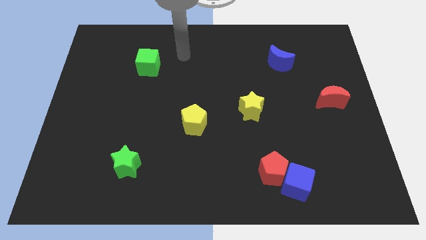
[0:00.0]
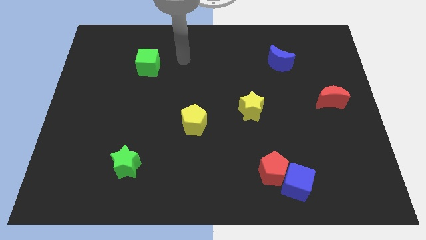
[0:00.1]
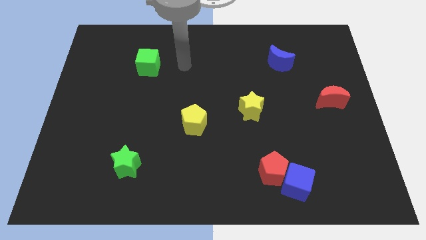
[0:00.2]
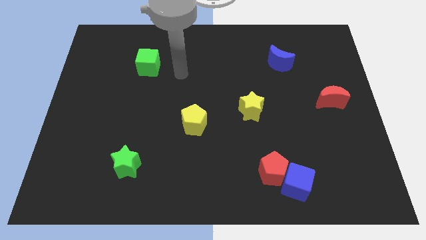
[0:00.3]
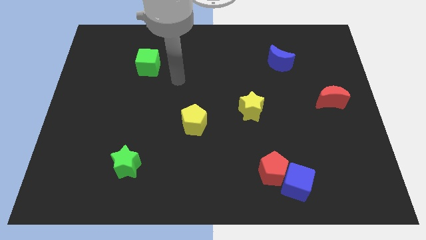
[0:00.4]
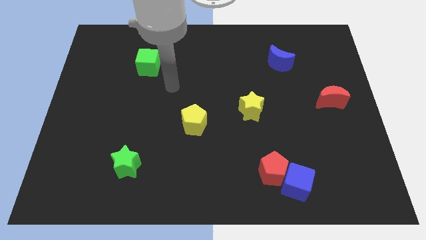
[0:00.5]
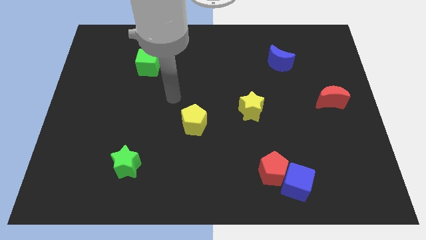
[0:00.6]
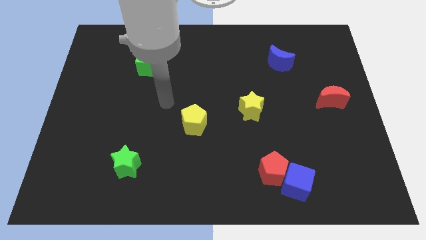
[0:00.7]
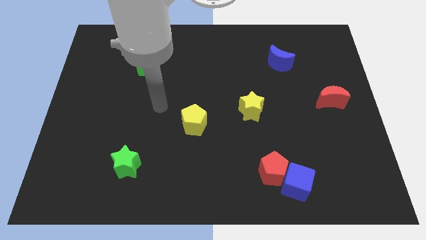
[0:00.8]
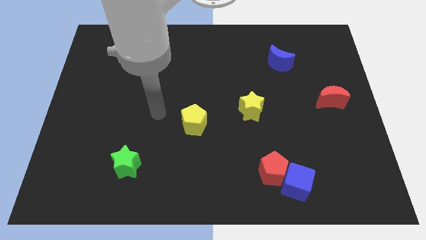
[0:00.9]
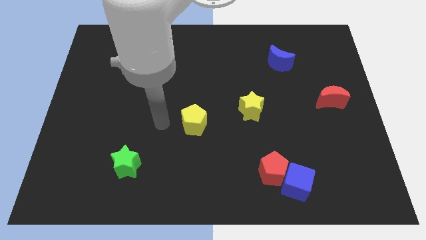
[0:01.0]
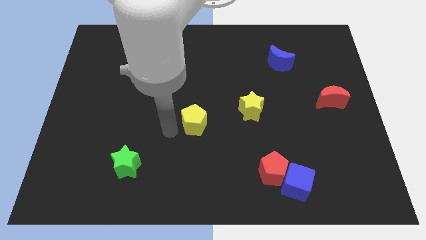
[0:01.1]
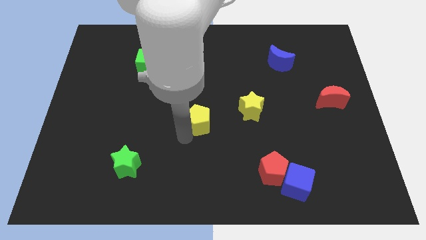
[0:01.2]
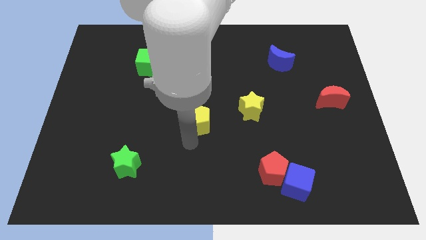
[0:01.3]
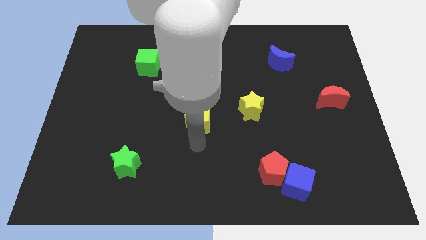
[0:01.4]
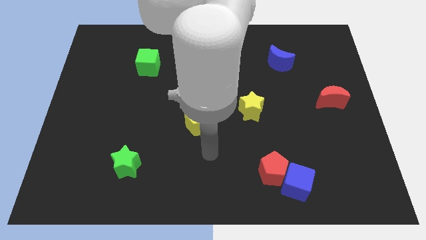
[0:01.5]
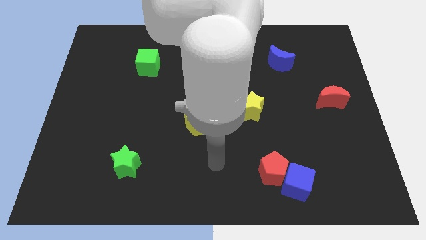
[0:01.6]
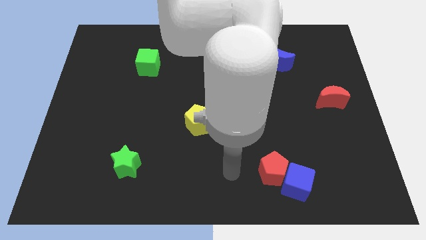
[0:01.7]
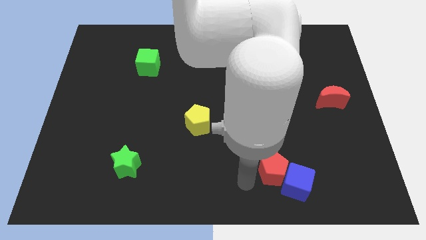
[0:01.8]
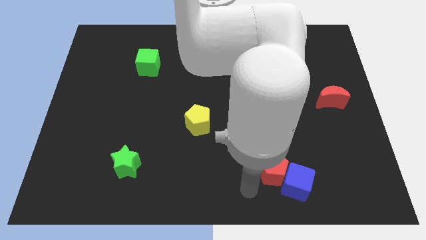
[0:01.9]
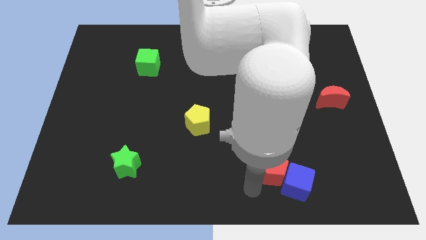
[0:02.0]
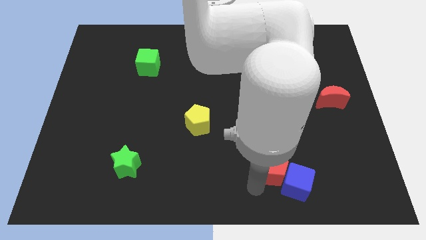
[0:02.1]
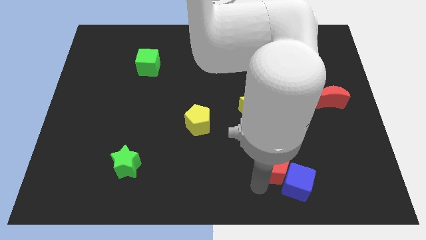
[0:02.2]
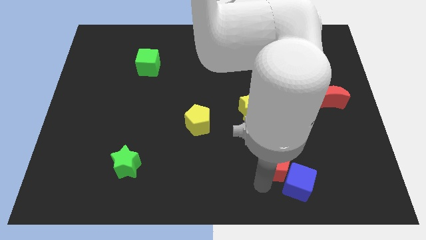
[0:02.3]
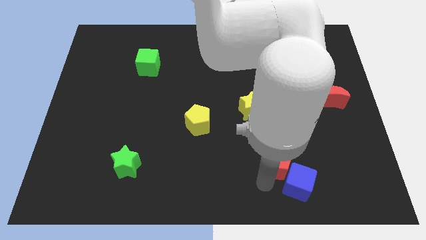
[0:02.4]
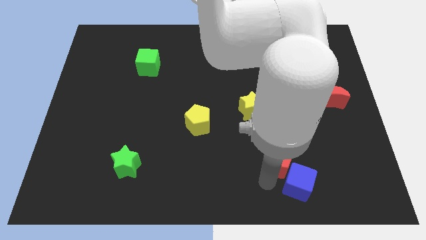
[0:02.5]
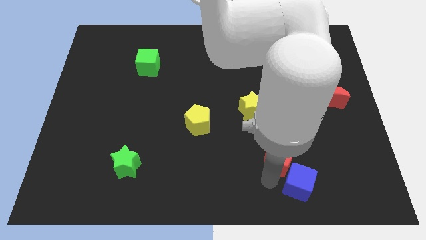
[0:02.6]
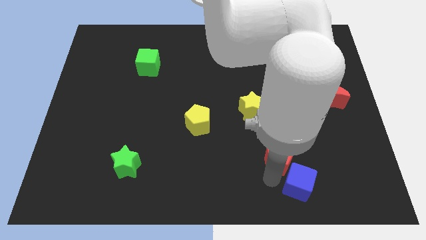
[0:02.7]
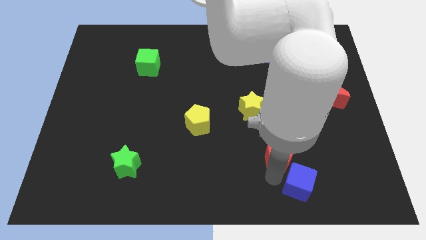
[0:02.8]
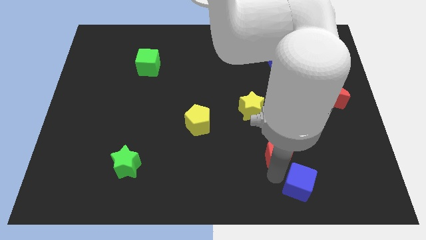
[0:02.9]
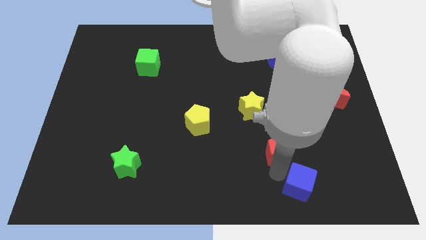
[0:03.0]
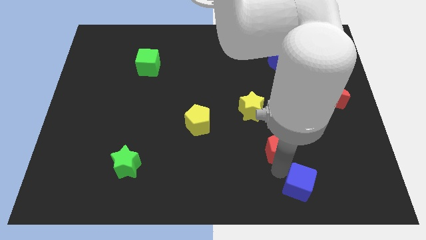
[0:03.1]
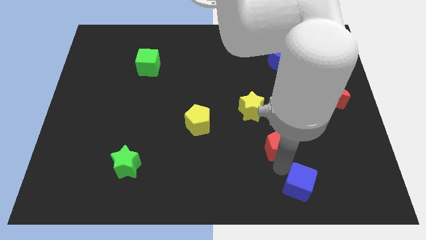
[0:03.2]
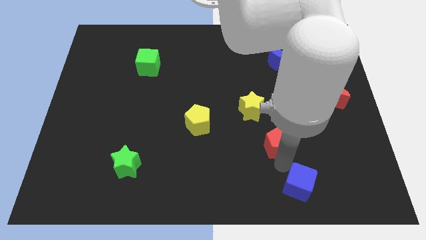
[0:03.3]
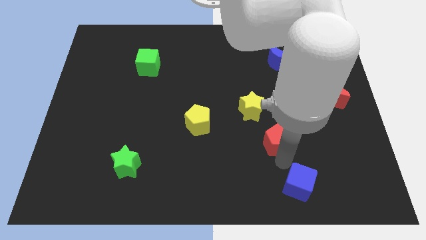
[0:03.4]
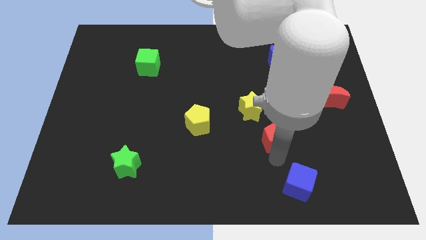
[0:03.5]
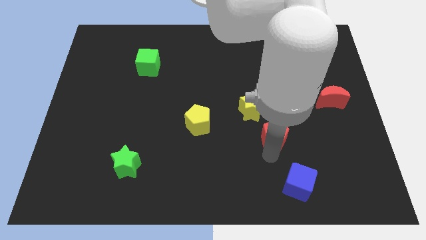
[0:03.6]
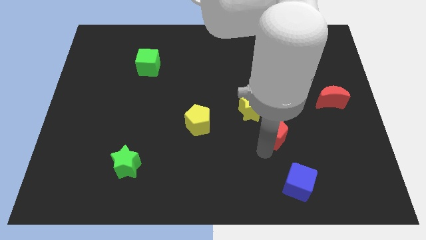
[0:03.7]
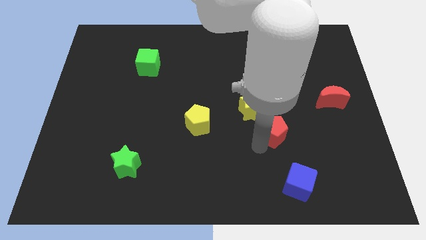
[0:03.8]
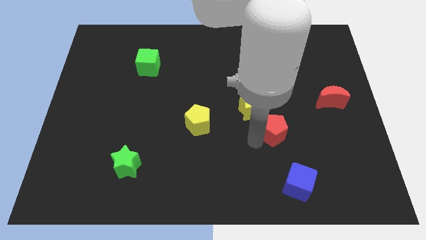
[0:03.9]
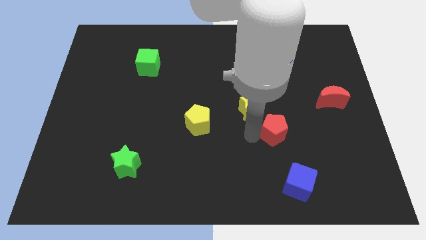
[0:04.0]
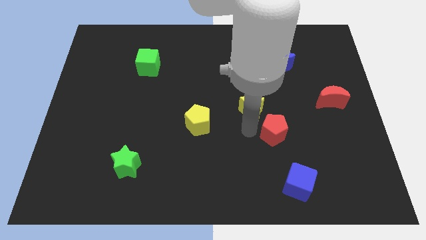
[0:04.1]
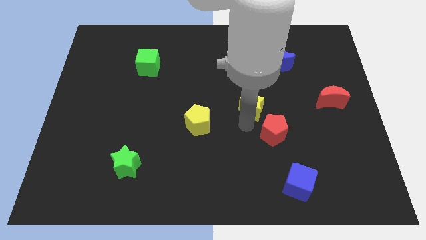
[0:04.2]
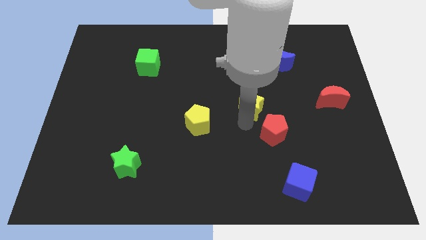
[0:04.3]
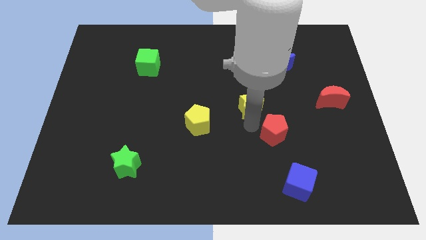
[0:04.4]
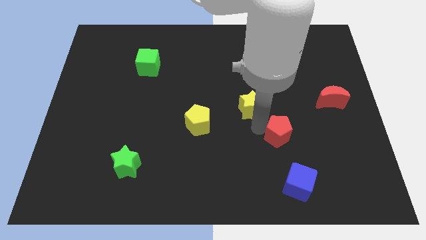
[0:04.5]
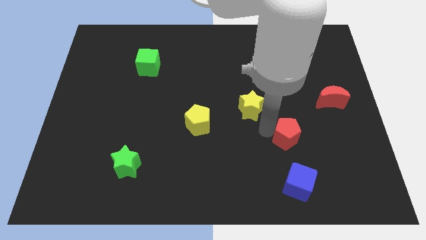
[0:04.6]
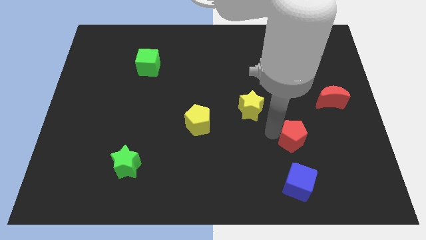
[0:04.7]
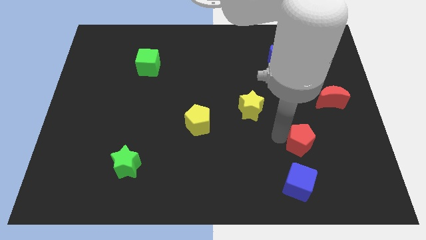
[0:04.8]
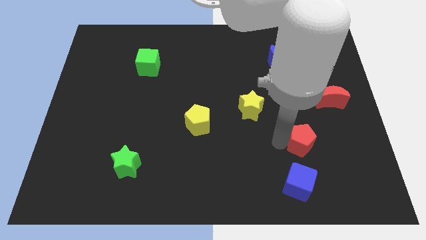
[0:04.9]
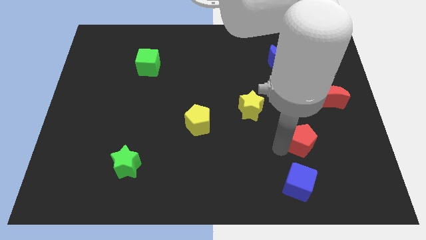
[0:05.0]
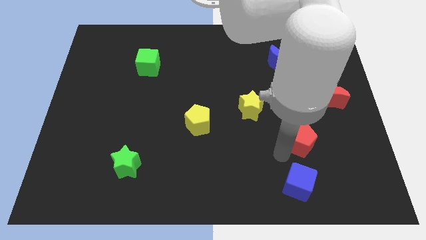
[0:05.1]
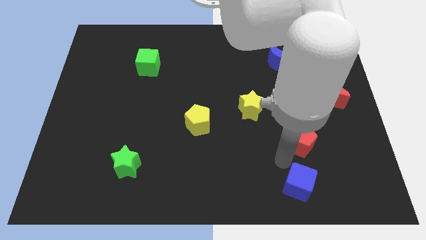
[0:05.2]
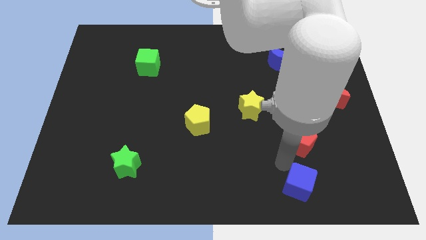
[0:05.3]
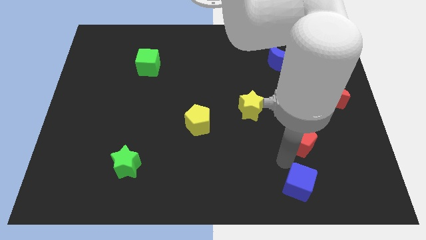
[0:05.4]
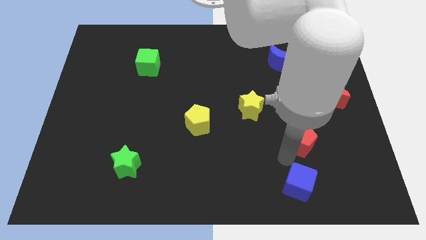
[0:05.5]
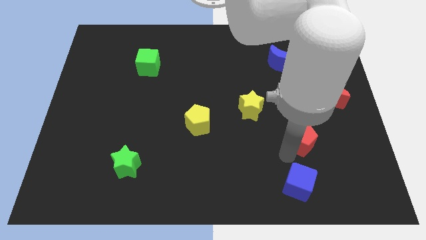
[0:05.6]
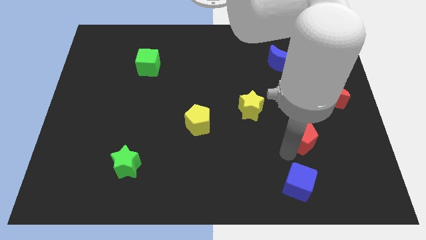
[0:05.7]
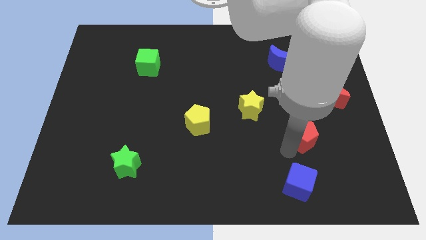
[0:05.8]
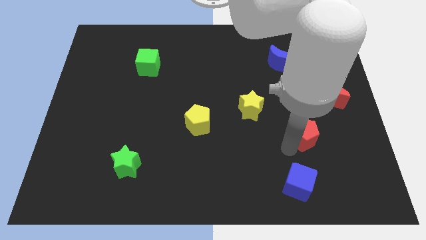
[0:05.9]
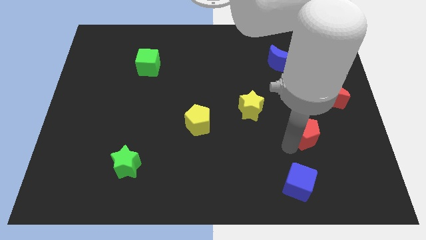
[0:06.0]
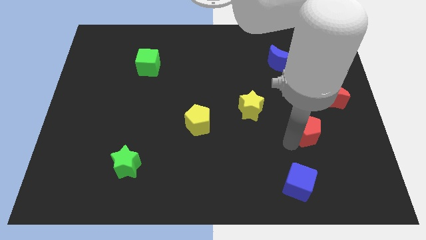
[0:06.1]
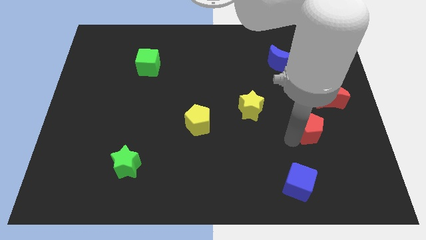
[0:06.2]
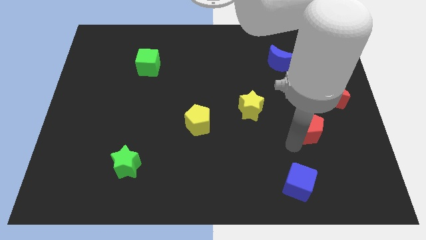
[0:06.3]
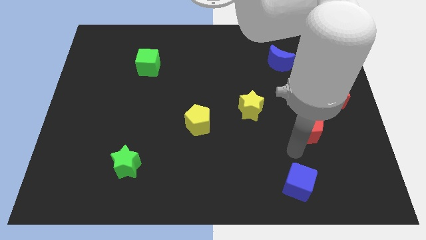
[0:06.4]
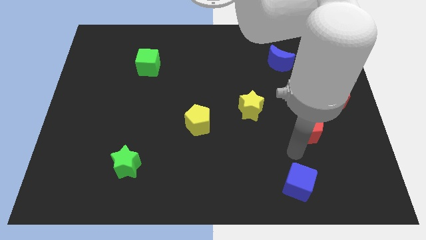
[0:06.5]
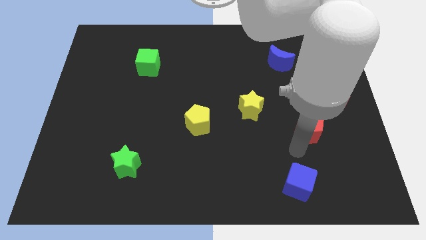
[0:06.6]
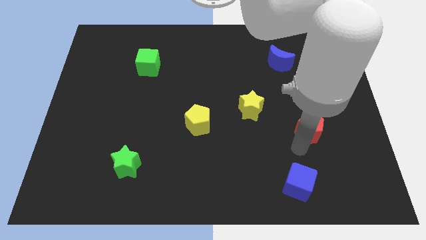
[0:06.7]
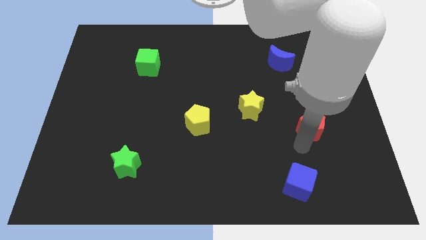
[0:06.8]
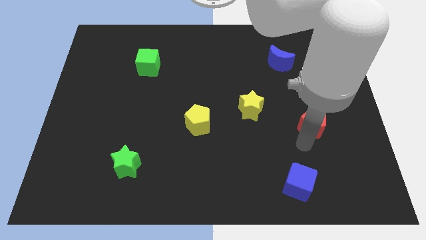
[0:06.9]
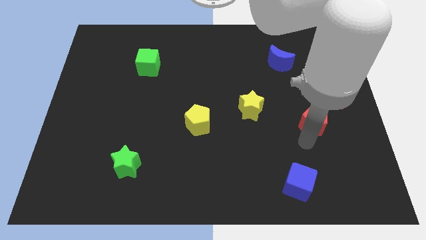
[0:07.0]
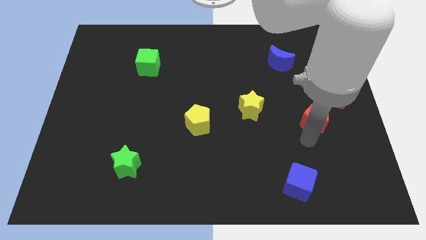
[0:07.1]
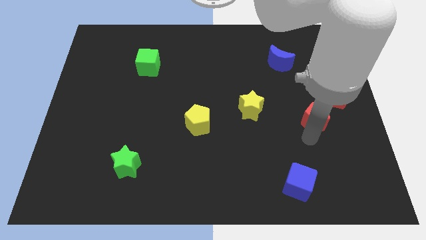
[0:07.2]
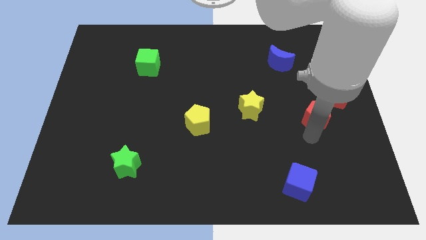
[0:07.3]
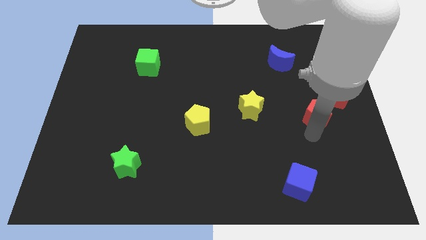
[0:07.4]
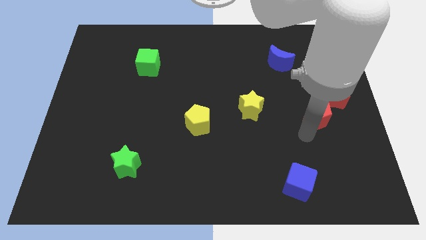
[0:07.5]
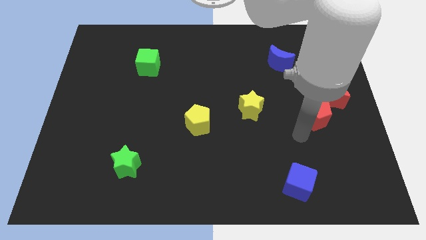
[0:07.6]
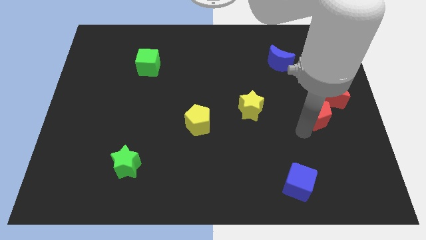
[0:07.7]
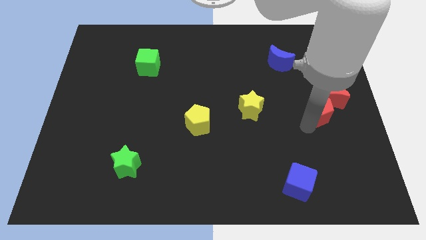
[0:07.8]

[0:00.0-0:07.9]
put the red pentagon towards the red moon
